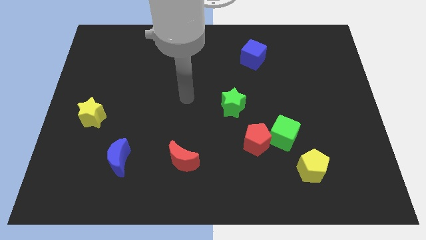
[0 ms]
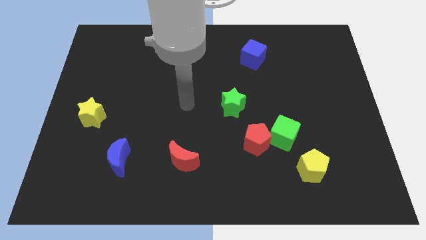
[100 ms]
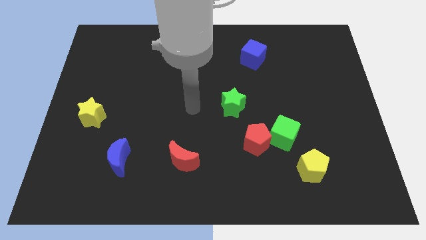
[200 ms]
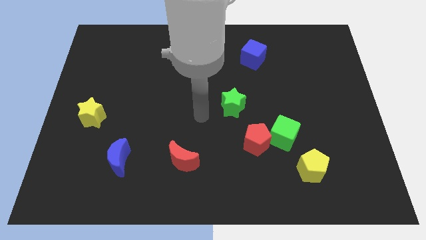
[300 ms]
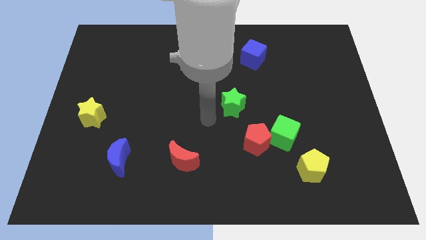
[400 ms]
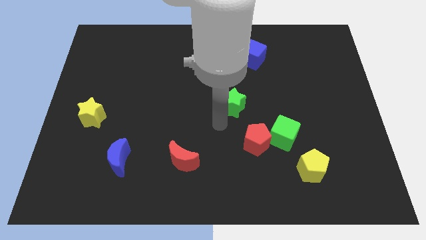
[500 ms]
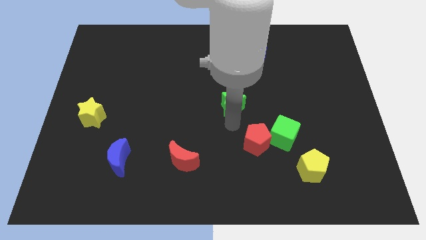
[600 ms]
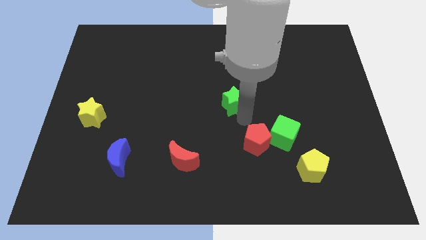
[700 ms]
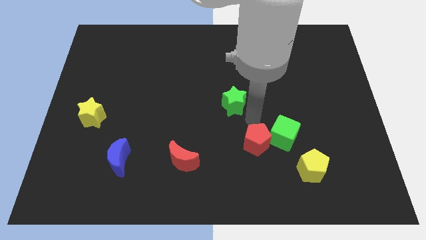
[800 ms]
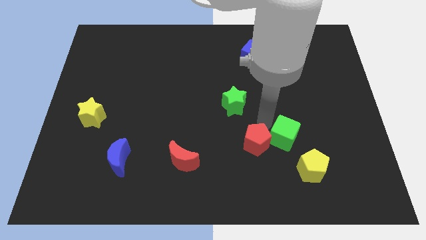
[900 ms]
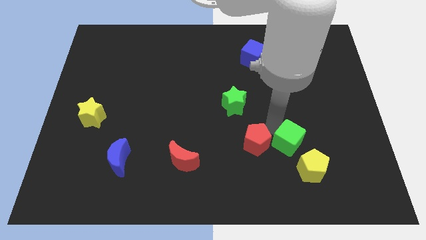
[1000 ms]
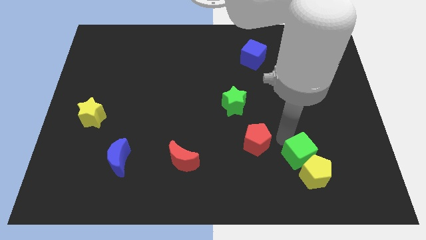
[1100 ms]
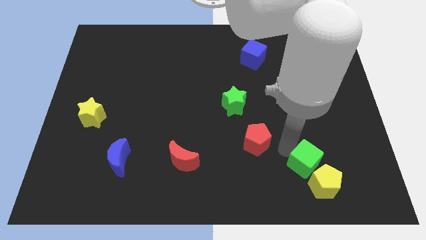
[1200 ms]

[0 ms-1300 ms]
separate the red pentagon from the green cube

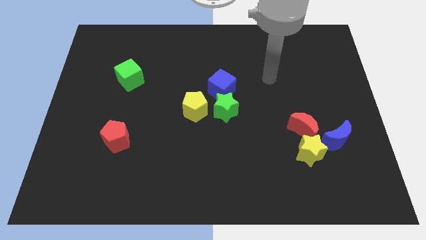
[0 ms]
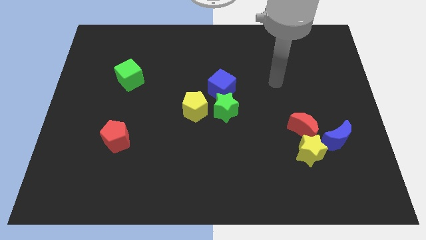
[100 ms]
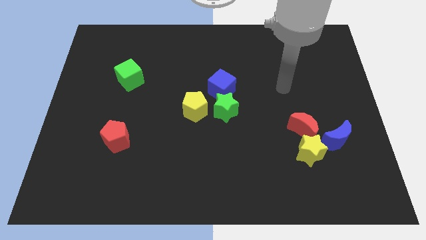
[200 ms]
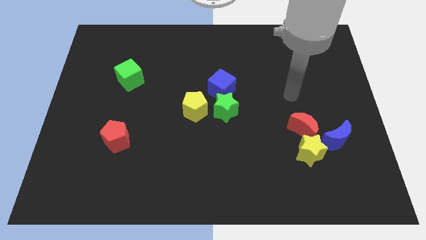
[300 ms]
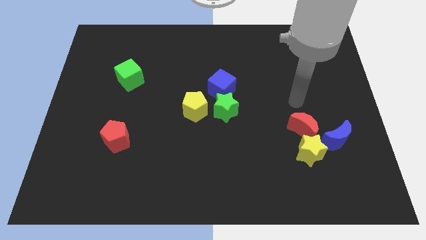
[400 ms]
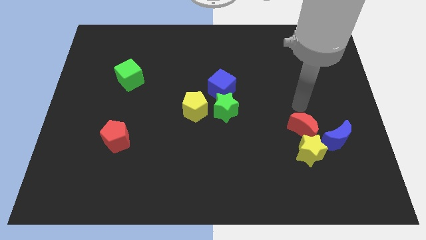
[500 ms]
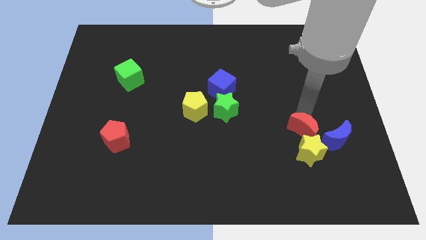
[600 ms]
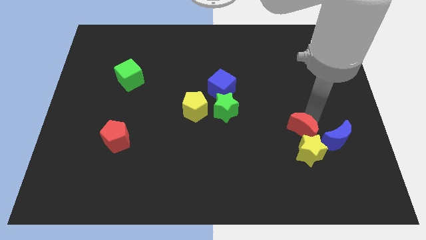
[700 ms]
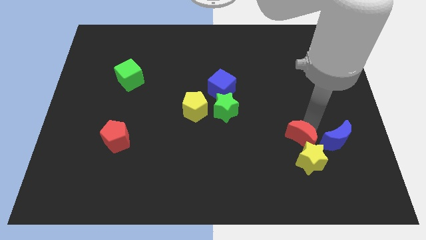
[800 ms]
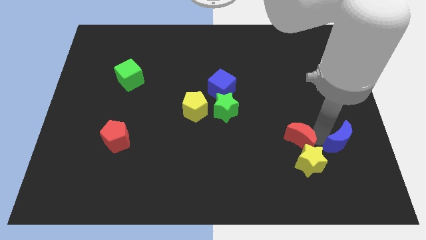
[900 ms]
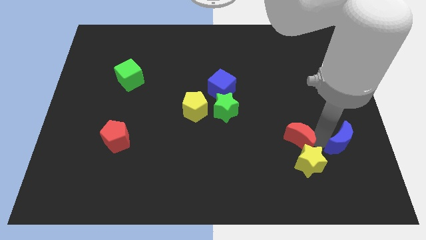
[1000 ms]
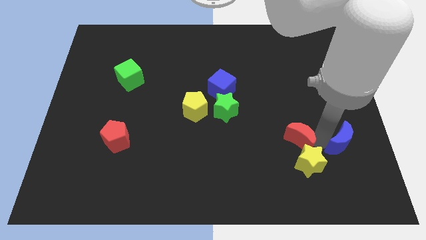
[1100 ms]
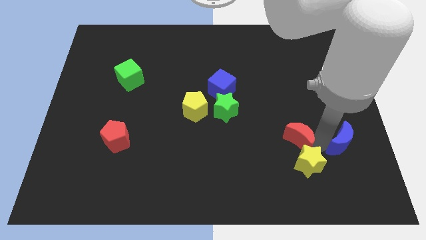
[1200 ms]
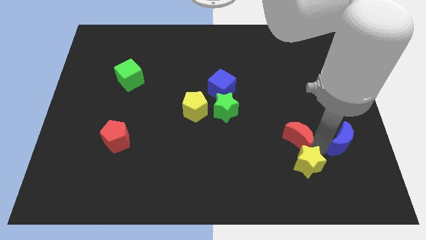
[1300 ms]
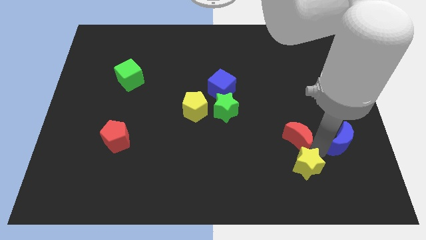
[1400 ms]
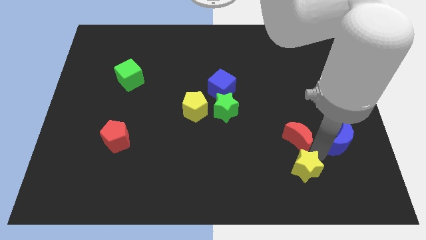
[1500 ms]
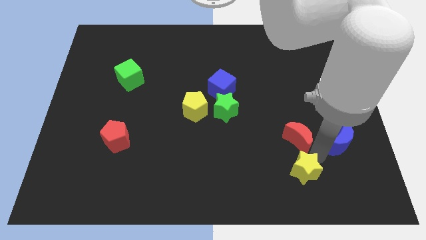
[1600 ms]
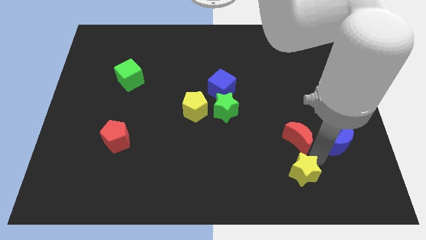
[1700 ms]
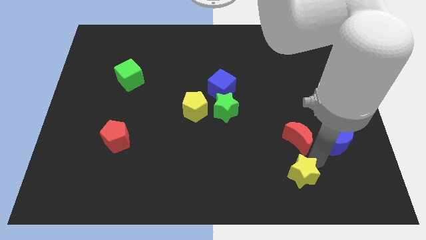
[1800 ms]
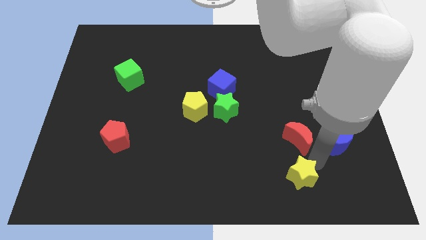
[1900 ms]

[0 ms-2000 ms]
pull the yellow star apart from the red moon and blue moon

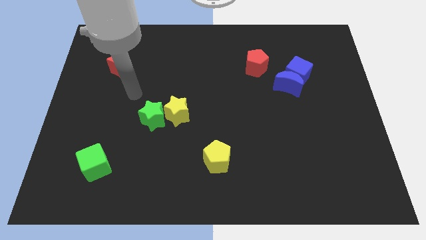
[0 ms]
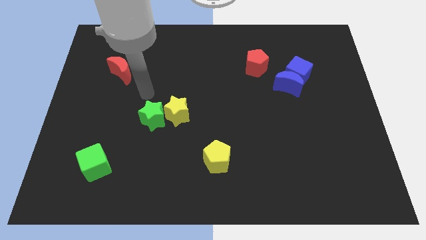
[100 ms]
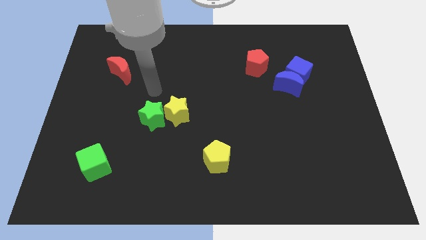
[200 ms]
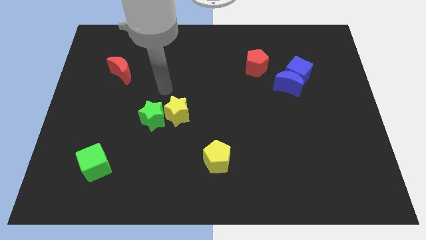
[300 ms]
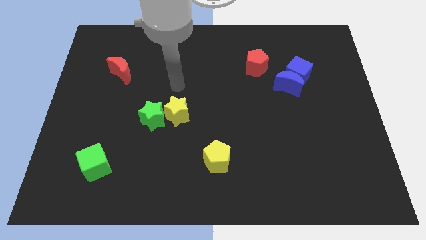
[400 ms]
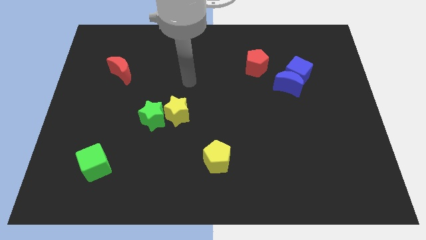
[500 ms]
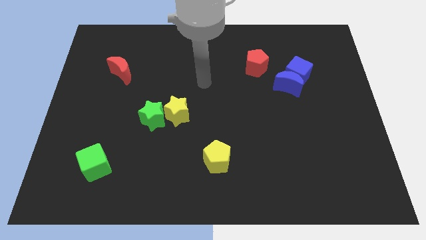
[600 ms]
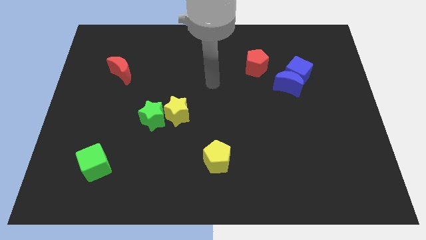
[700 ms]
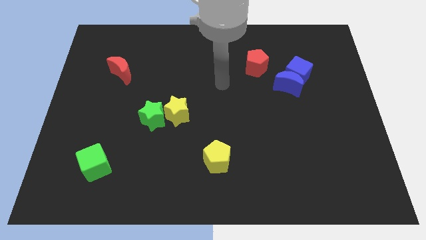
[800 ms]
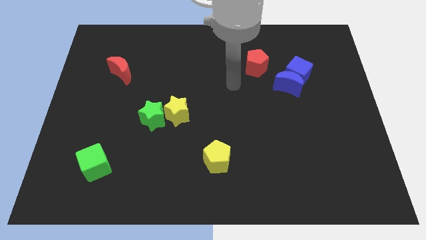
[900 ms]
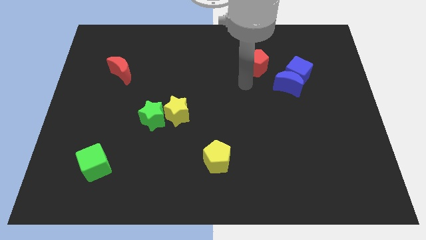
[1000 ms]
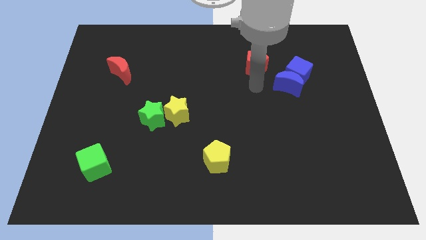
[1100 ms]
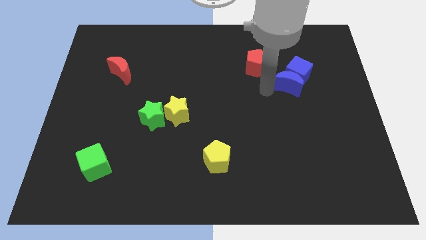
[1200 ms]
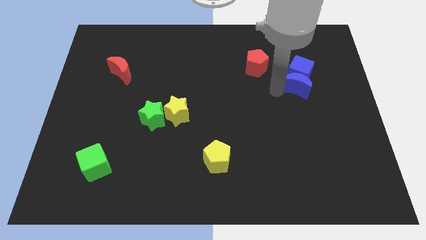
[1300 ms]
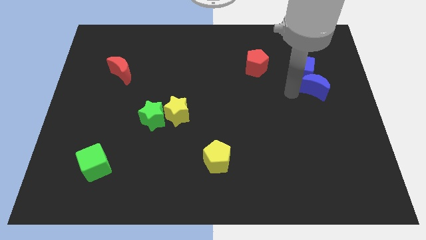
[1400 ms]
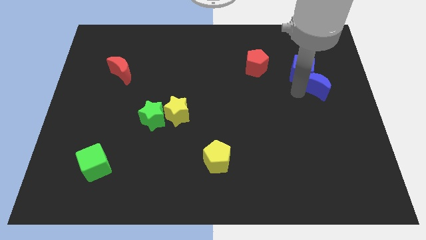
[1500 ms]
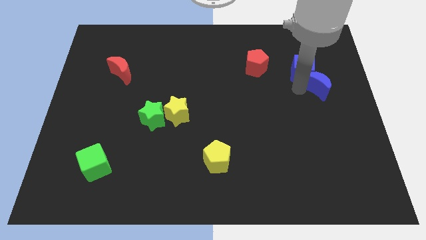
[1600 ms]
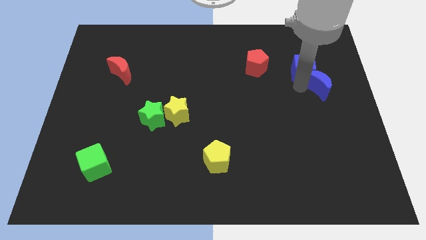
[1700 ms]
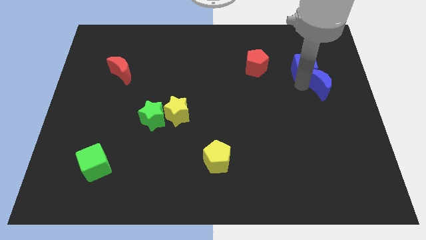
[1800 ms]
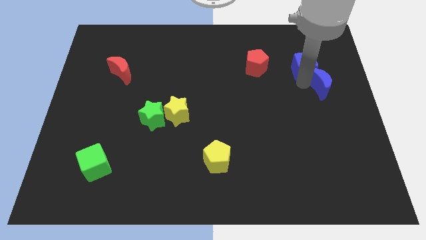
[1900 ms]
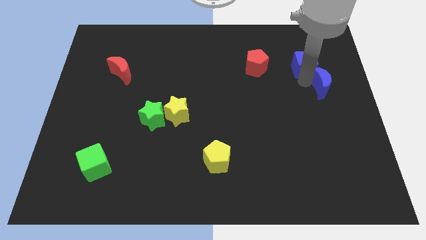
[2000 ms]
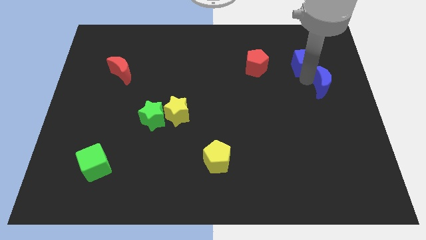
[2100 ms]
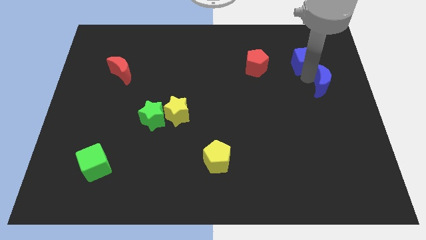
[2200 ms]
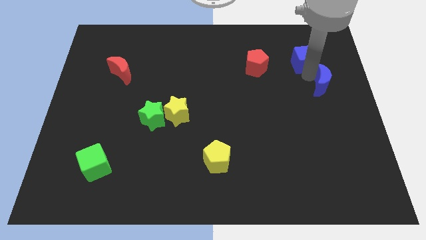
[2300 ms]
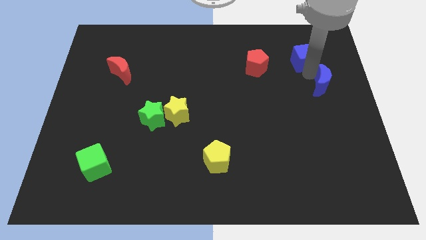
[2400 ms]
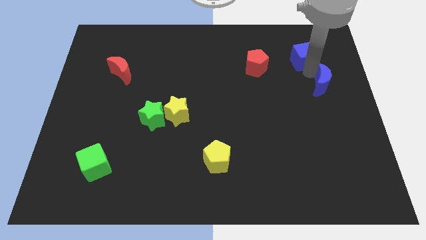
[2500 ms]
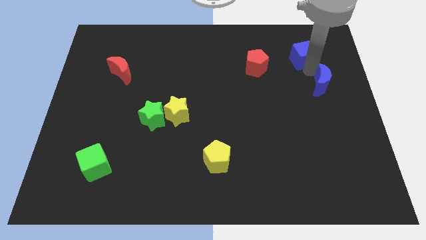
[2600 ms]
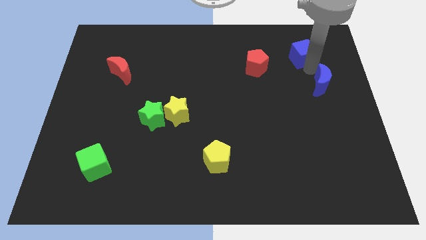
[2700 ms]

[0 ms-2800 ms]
pull the blue cube apart from the blue moon

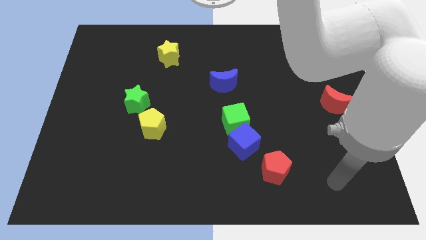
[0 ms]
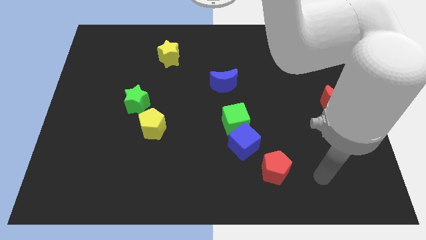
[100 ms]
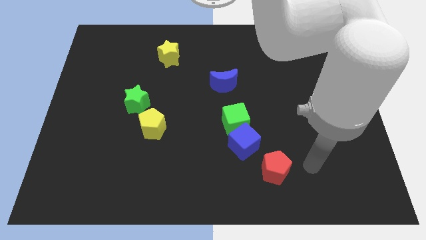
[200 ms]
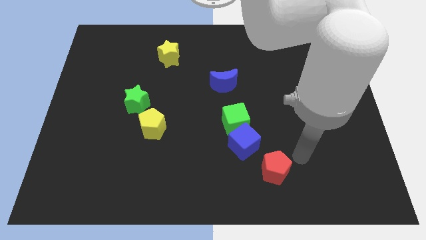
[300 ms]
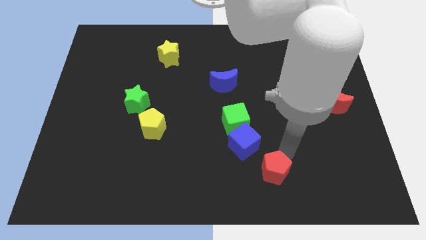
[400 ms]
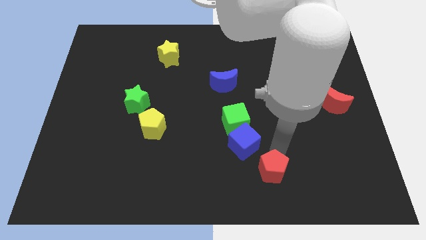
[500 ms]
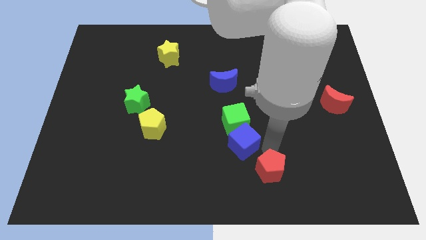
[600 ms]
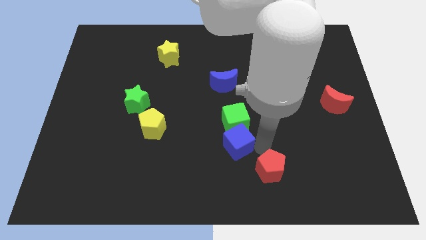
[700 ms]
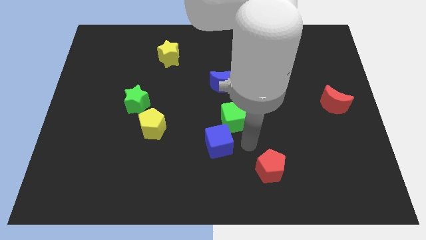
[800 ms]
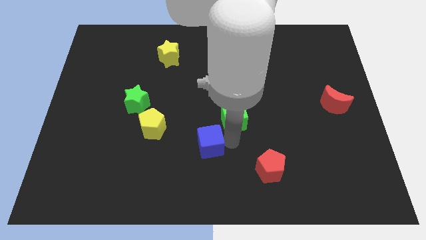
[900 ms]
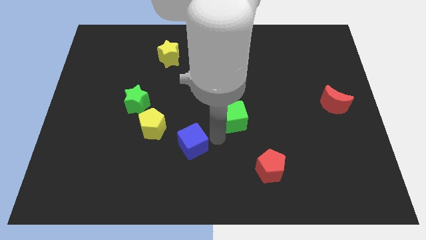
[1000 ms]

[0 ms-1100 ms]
pull the green cube apart from the blue cube

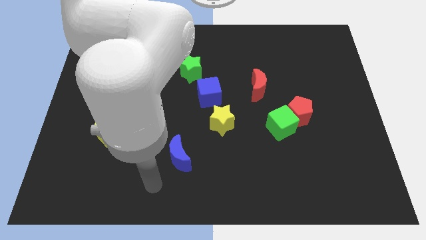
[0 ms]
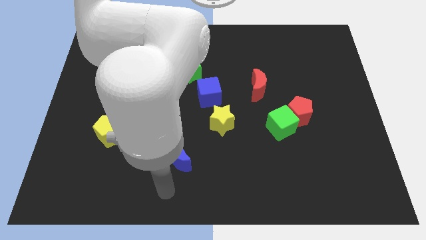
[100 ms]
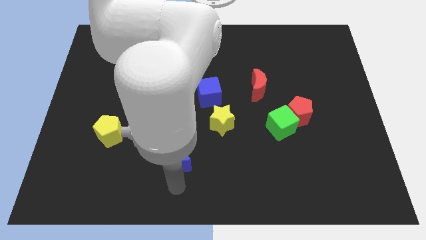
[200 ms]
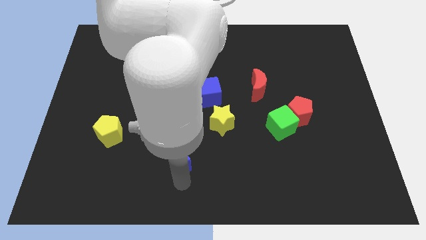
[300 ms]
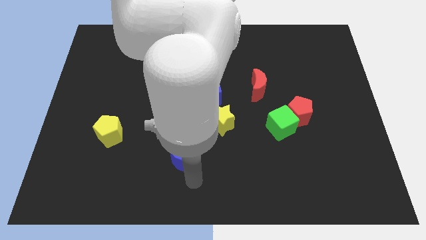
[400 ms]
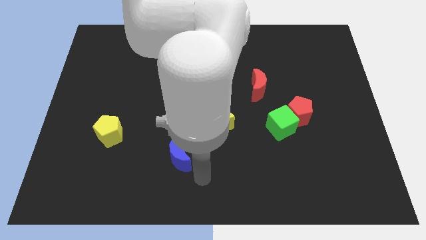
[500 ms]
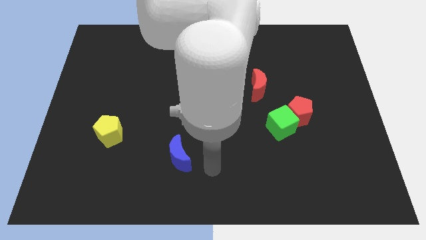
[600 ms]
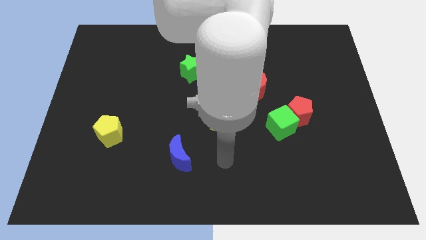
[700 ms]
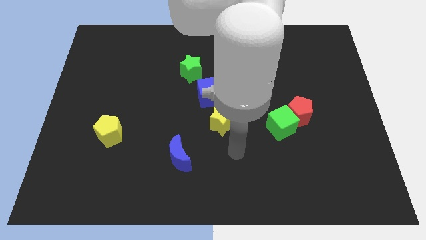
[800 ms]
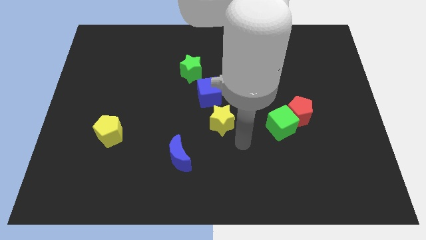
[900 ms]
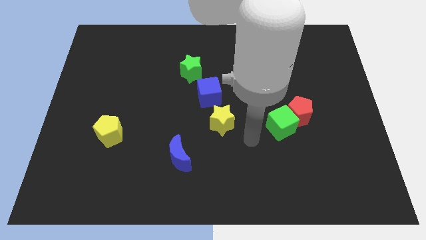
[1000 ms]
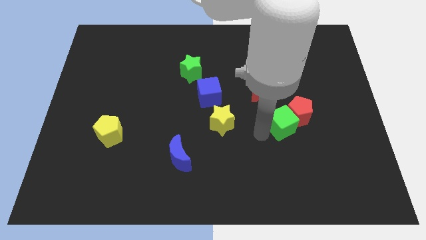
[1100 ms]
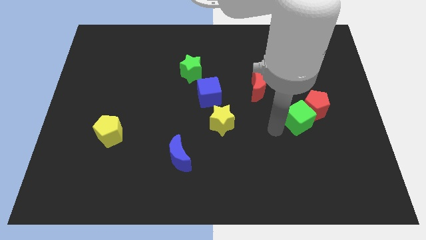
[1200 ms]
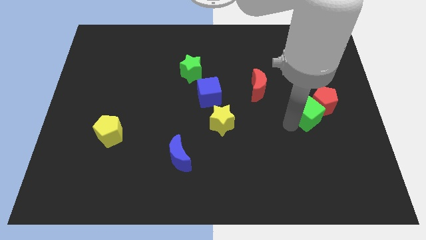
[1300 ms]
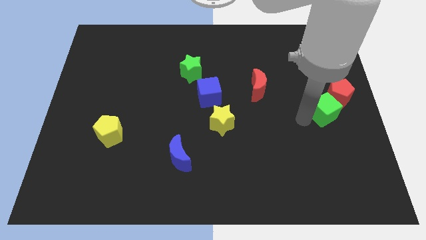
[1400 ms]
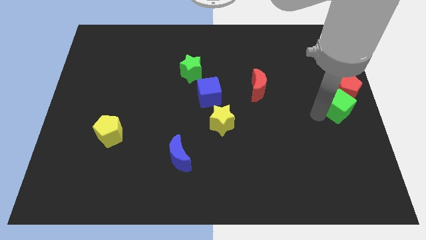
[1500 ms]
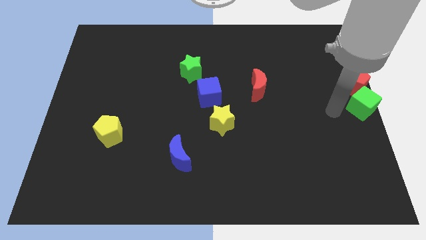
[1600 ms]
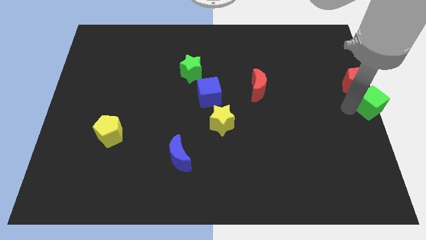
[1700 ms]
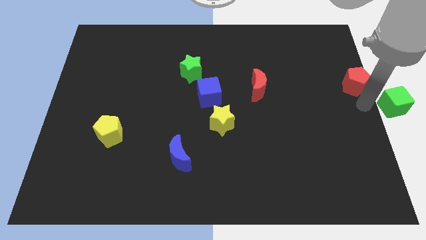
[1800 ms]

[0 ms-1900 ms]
move the red pentagon away from the green cube
